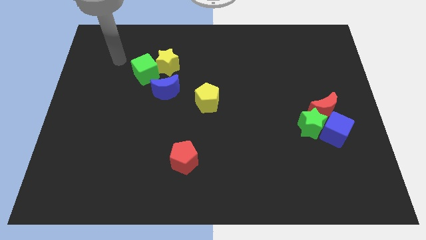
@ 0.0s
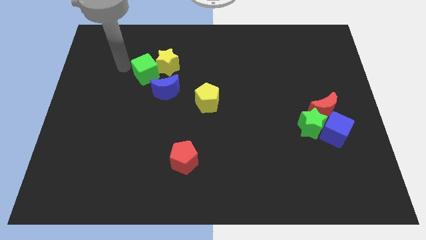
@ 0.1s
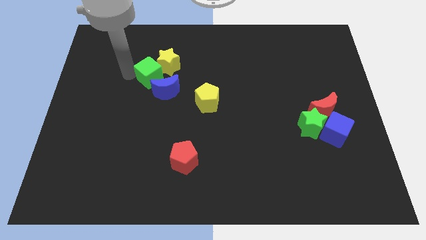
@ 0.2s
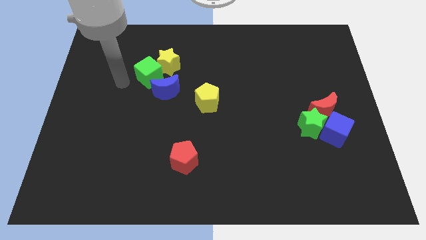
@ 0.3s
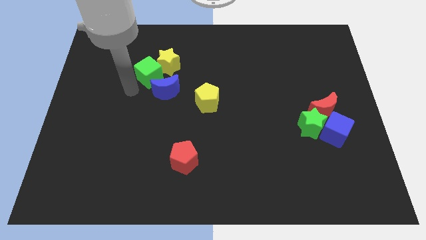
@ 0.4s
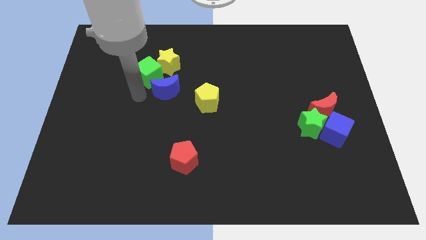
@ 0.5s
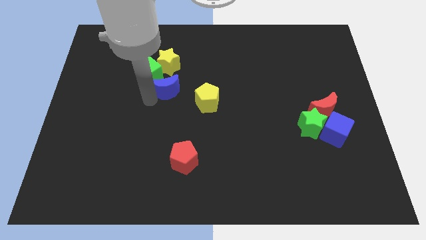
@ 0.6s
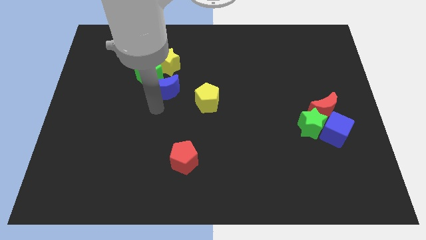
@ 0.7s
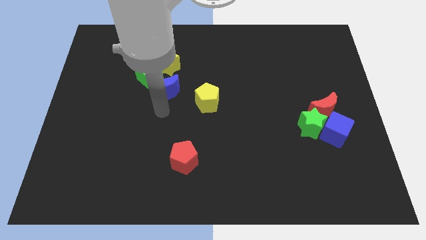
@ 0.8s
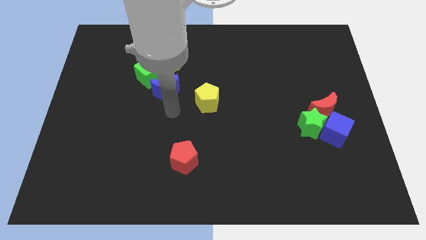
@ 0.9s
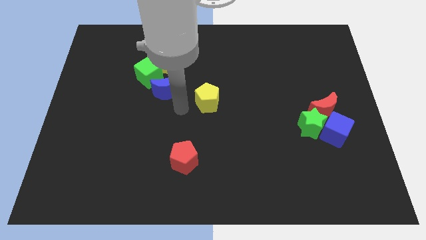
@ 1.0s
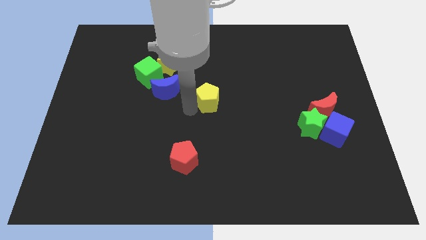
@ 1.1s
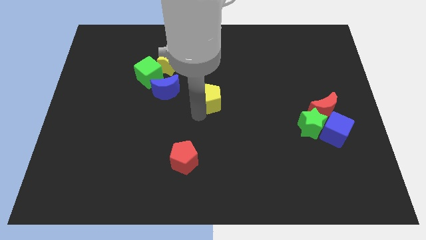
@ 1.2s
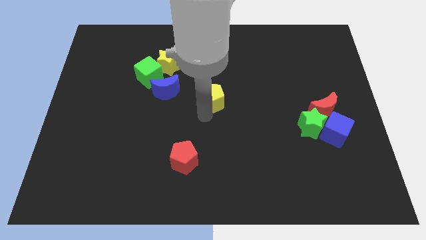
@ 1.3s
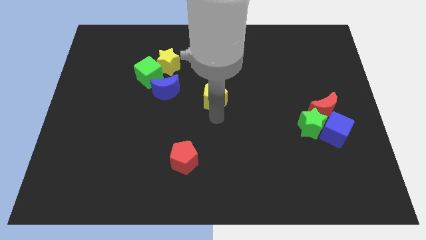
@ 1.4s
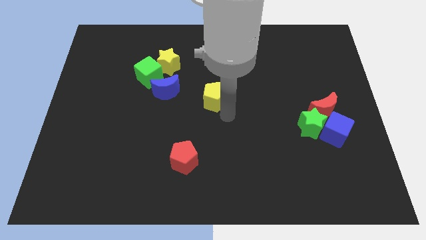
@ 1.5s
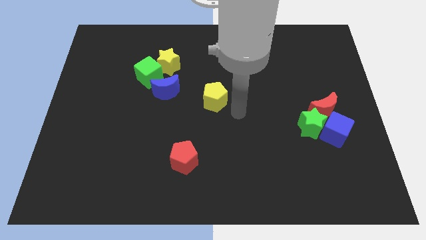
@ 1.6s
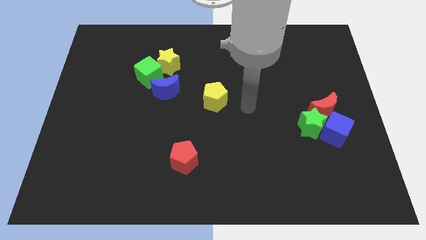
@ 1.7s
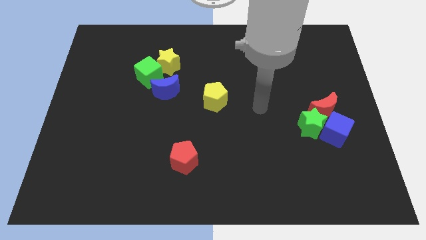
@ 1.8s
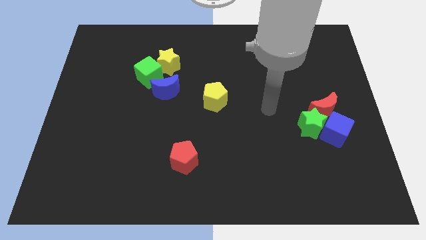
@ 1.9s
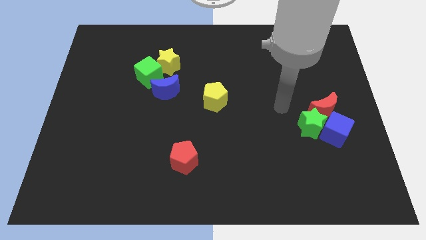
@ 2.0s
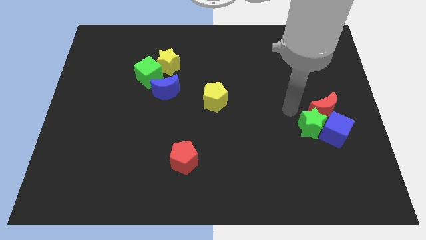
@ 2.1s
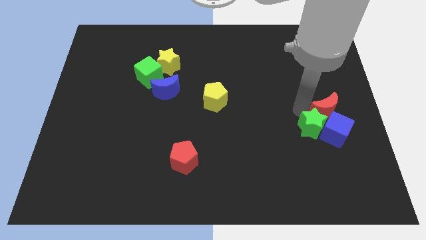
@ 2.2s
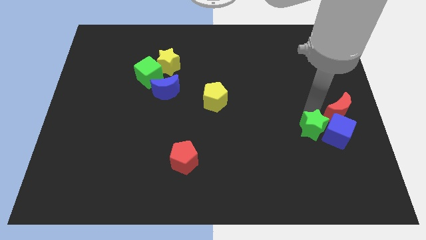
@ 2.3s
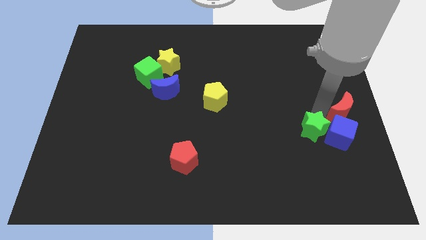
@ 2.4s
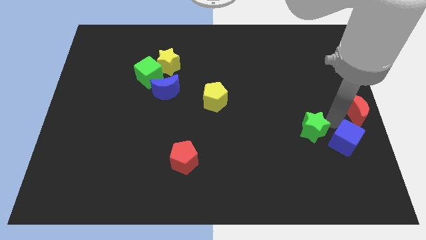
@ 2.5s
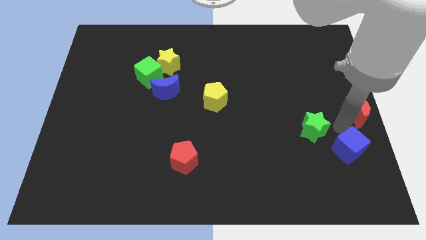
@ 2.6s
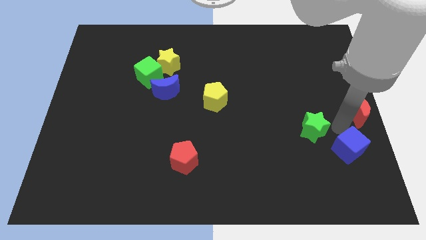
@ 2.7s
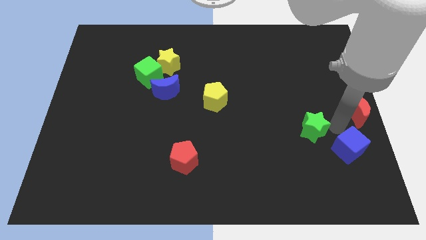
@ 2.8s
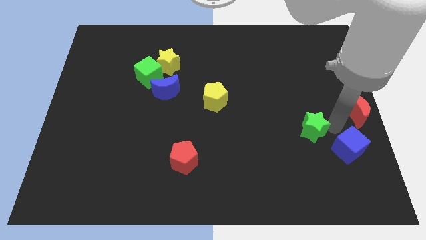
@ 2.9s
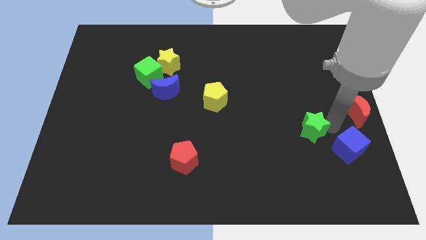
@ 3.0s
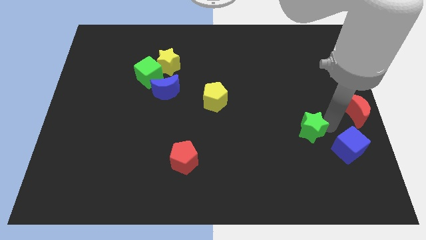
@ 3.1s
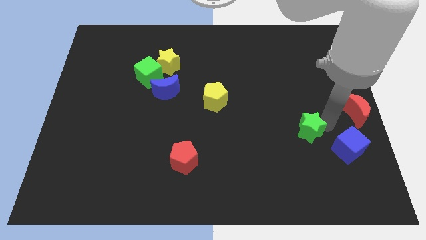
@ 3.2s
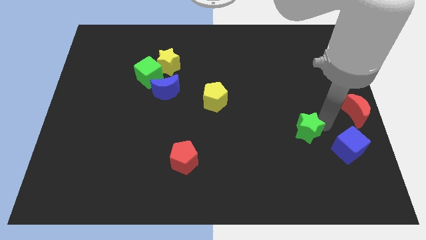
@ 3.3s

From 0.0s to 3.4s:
separate the green star from the blue cube and red moon

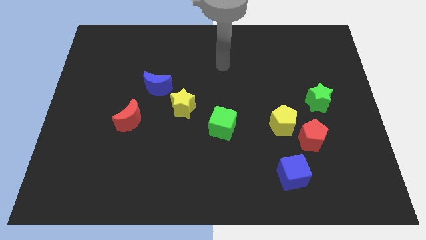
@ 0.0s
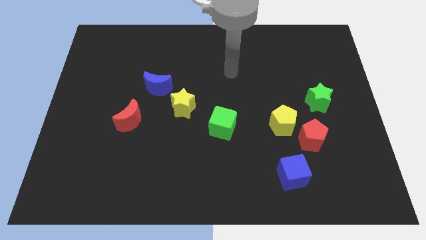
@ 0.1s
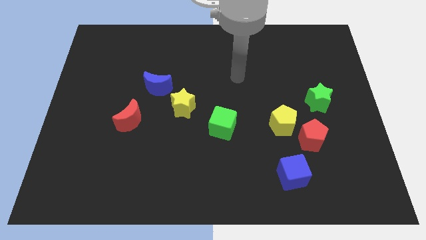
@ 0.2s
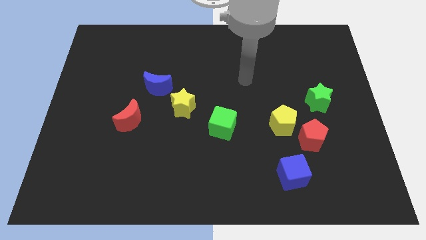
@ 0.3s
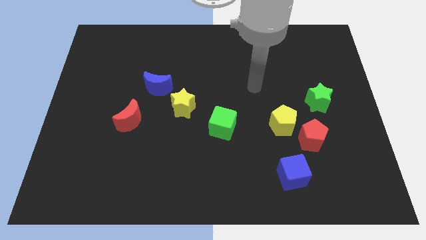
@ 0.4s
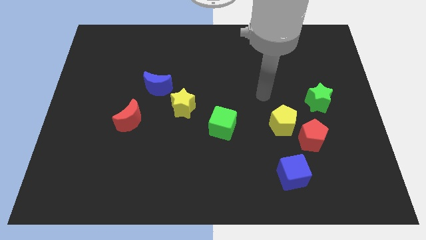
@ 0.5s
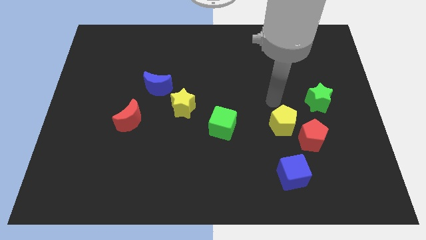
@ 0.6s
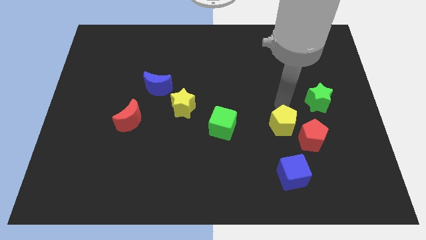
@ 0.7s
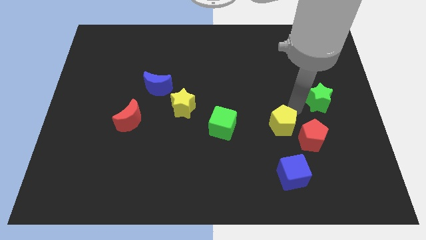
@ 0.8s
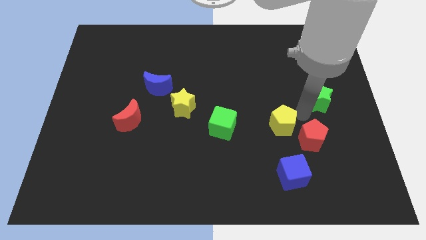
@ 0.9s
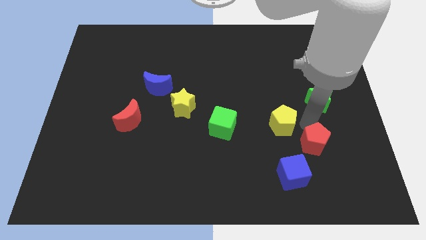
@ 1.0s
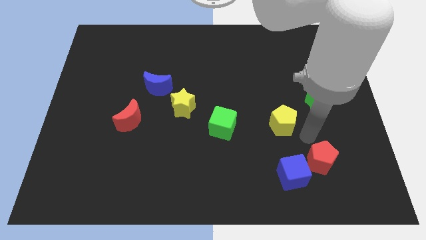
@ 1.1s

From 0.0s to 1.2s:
pull the yellow pentagon apart from the red pentagon

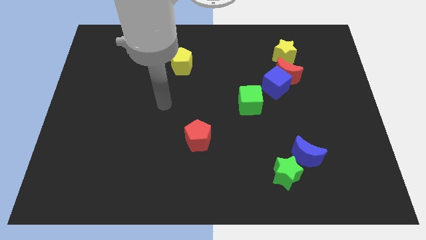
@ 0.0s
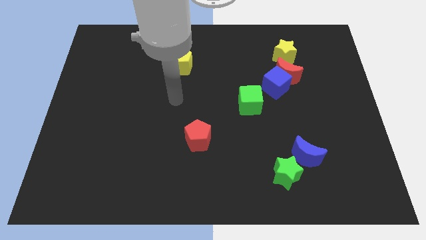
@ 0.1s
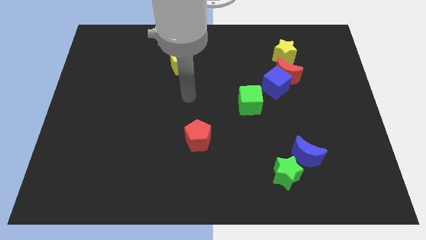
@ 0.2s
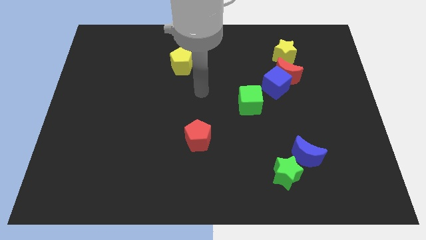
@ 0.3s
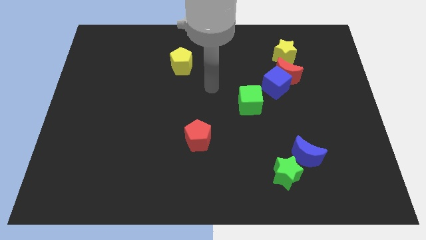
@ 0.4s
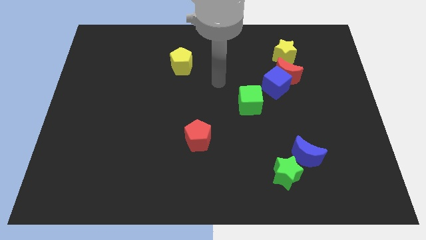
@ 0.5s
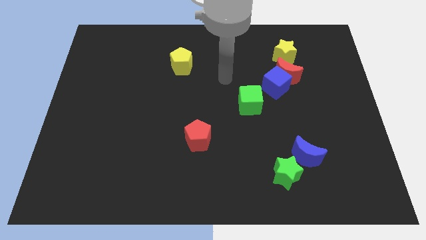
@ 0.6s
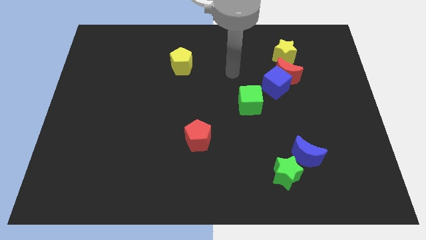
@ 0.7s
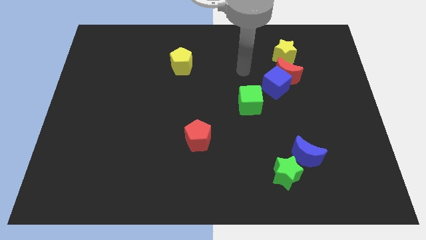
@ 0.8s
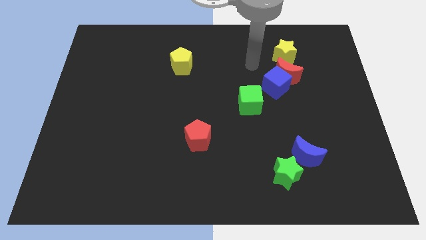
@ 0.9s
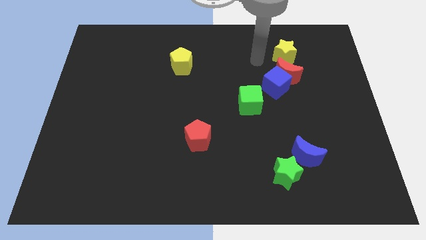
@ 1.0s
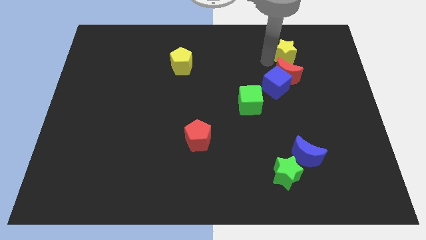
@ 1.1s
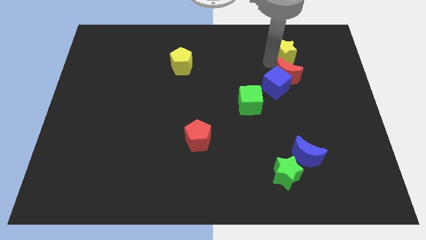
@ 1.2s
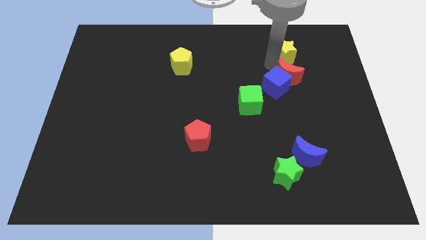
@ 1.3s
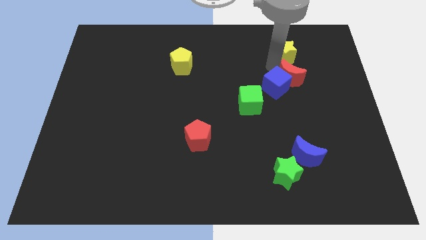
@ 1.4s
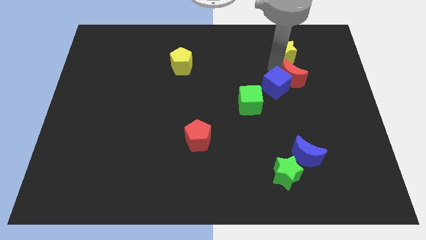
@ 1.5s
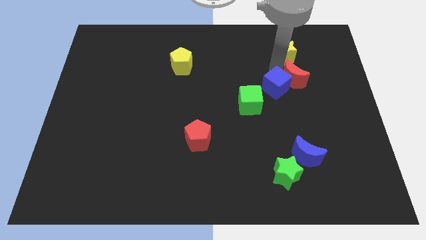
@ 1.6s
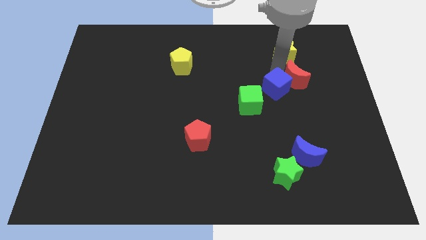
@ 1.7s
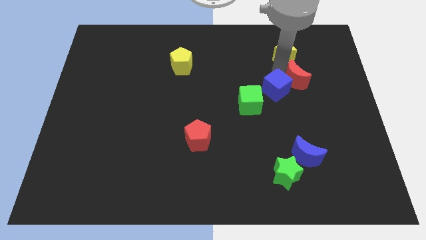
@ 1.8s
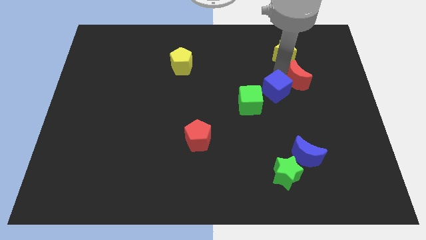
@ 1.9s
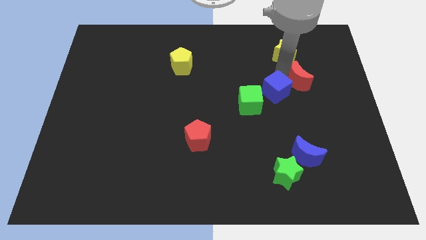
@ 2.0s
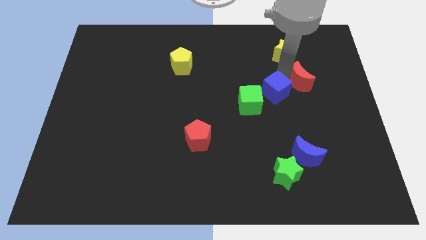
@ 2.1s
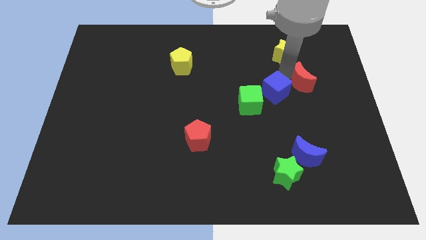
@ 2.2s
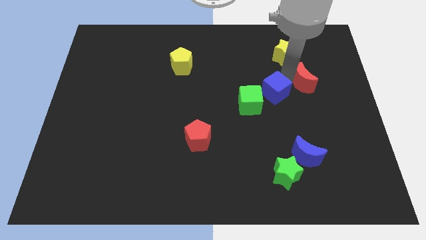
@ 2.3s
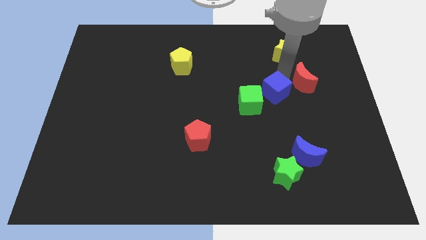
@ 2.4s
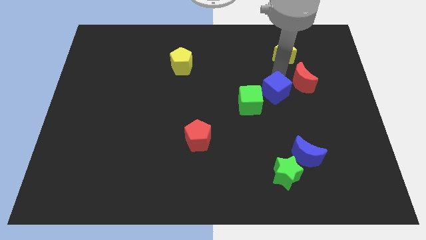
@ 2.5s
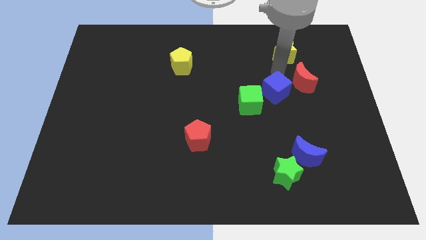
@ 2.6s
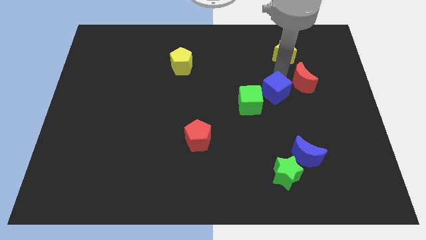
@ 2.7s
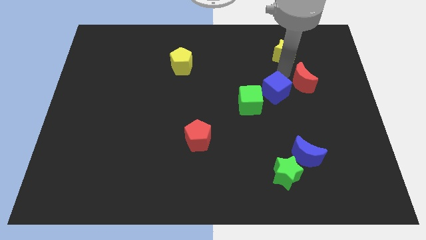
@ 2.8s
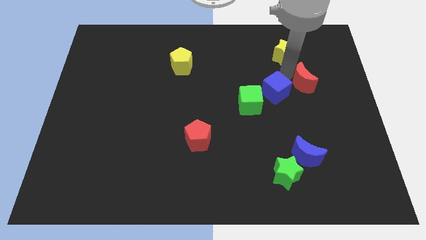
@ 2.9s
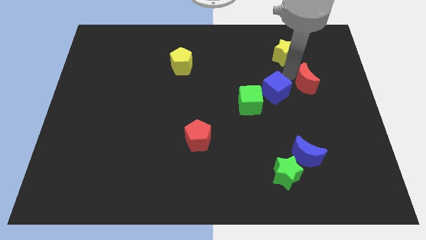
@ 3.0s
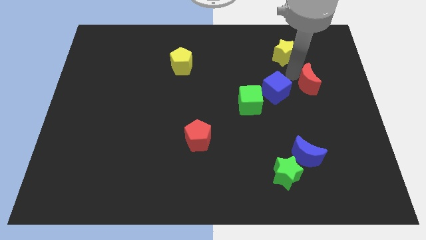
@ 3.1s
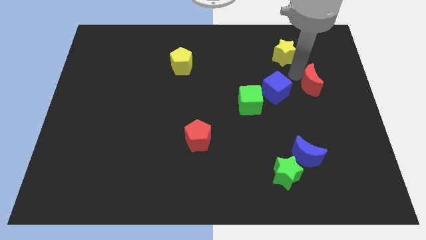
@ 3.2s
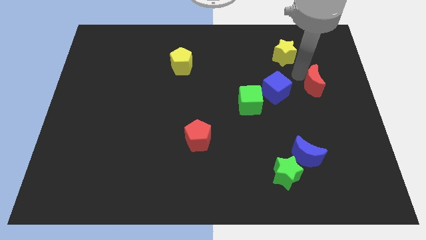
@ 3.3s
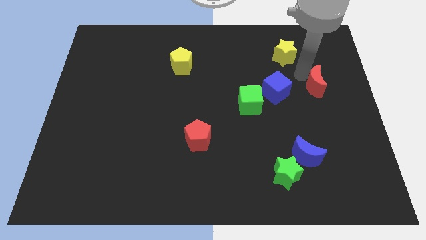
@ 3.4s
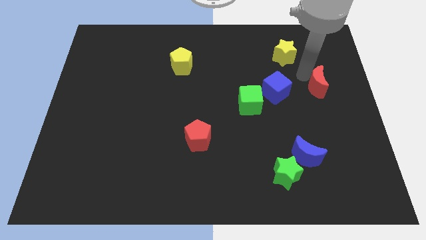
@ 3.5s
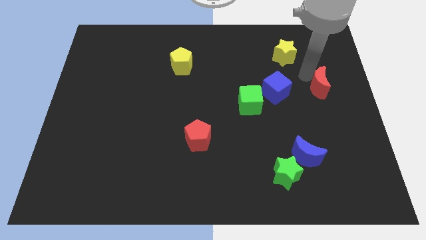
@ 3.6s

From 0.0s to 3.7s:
pull the red moon apart from the blue cube and yellow star

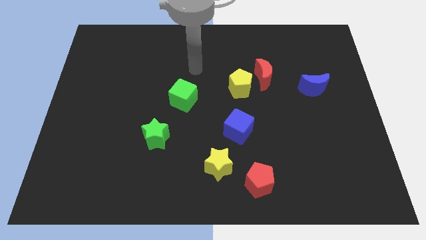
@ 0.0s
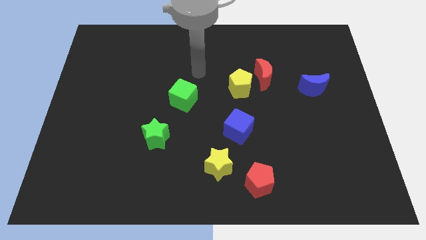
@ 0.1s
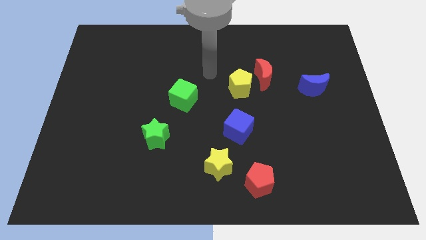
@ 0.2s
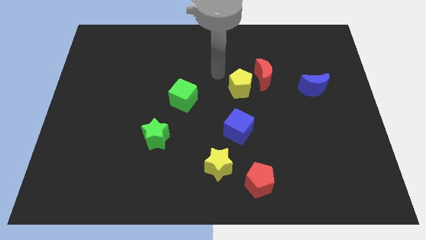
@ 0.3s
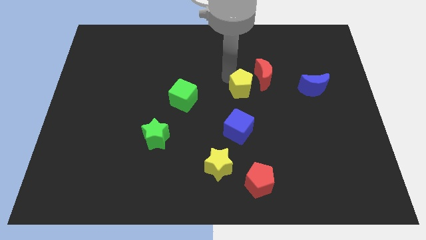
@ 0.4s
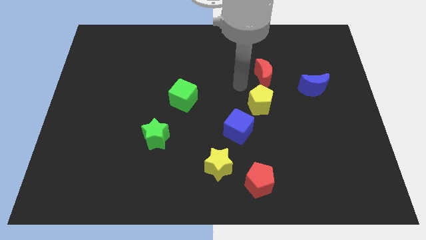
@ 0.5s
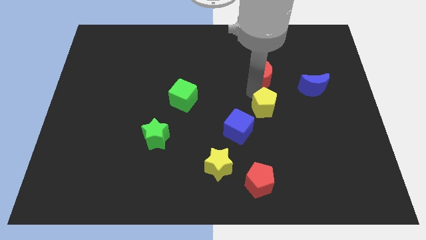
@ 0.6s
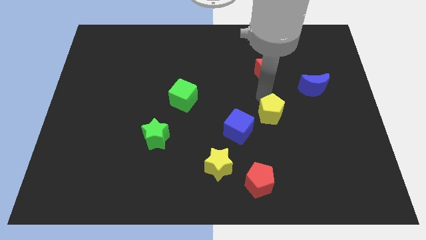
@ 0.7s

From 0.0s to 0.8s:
separate the red moon from the yellow pentagon

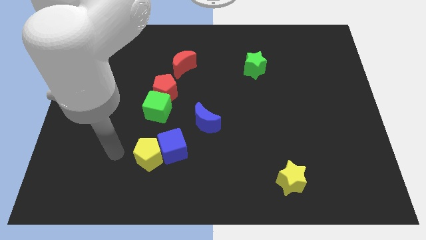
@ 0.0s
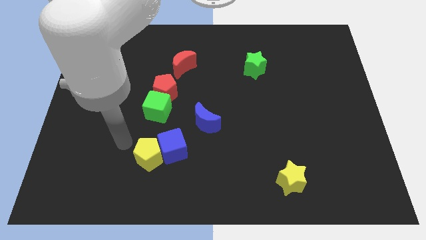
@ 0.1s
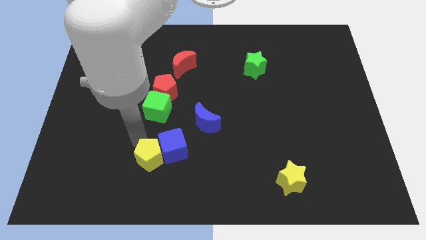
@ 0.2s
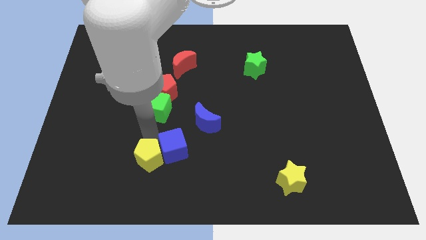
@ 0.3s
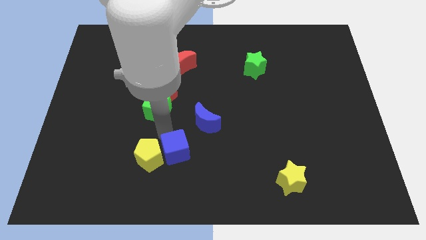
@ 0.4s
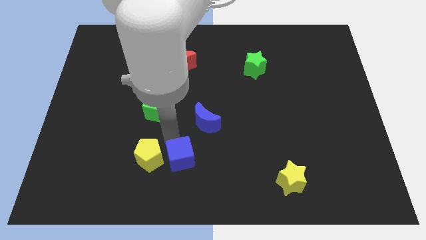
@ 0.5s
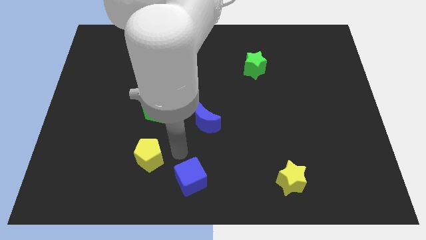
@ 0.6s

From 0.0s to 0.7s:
pull the yellow pentagon apart from the blue cube
